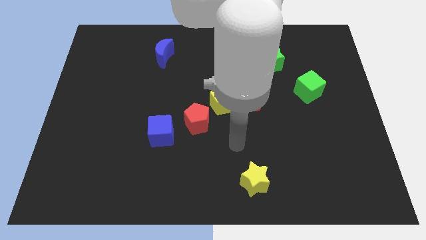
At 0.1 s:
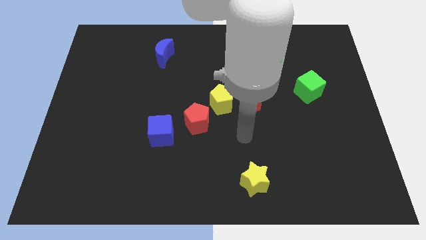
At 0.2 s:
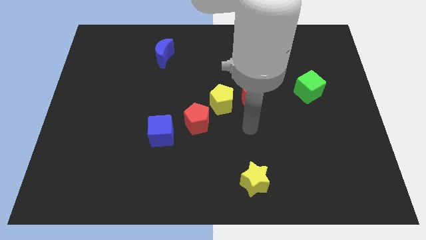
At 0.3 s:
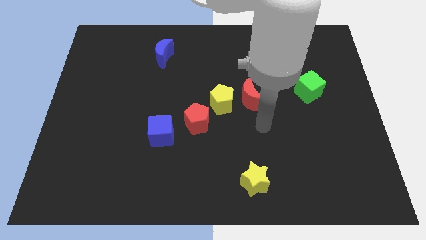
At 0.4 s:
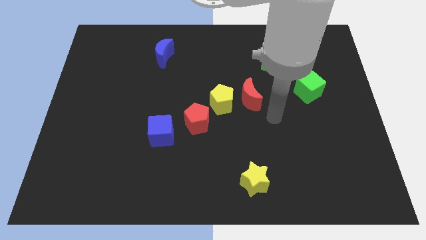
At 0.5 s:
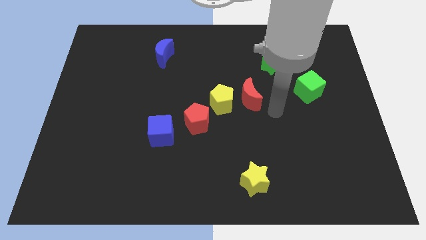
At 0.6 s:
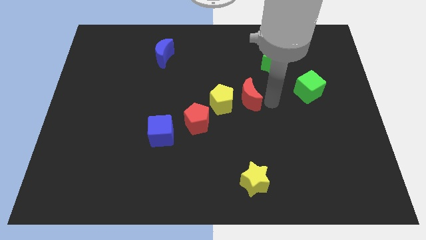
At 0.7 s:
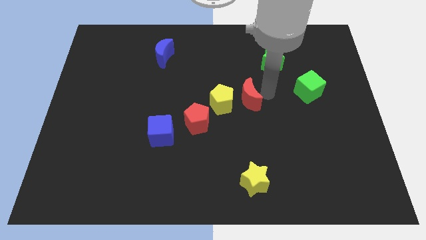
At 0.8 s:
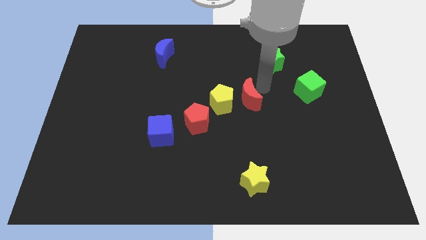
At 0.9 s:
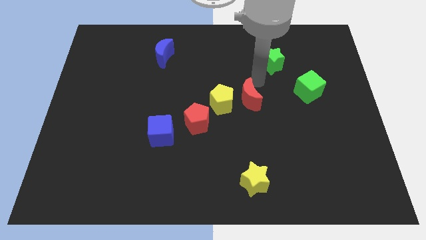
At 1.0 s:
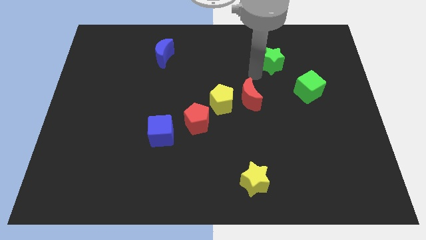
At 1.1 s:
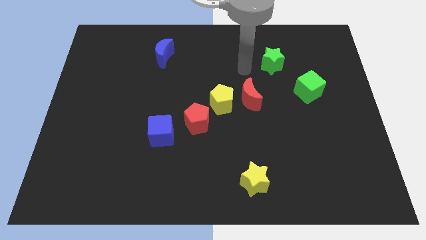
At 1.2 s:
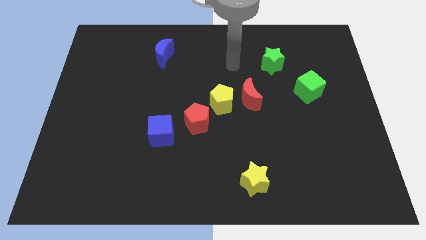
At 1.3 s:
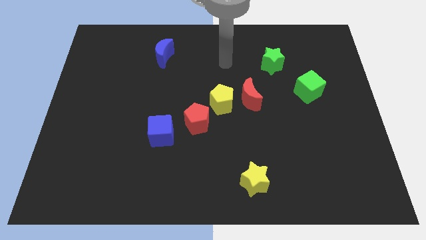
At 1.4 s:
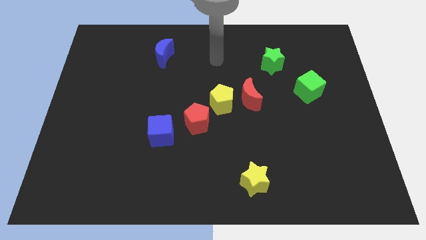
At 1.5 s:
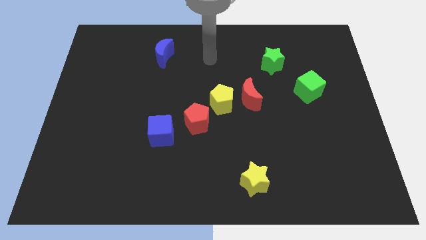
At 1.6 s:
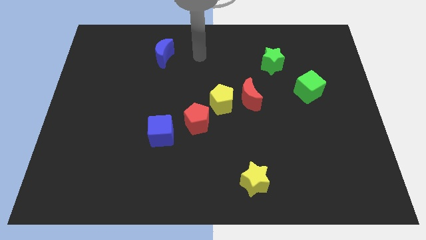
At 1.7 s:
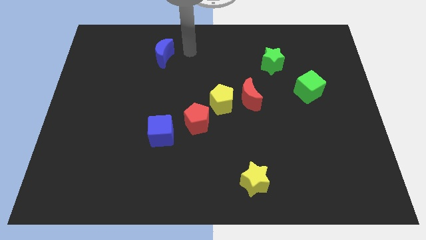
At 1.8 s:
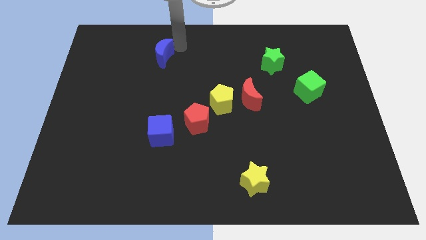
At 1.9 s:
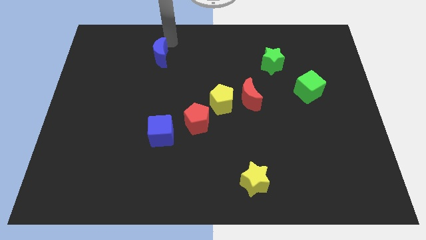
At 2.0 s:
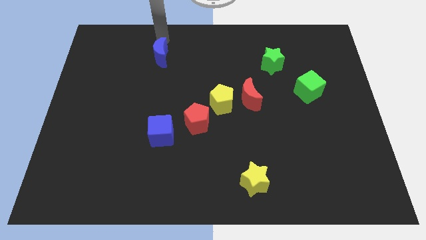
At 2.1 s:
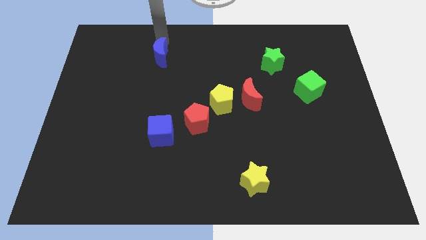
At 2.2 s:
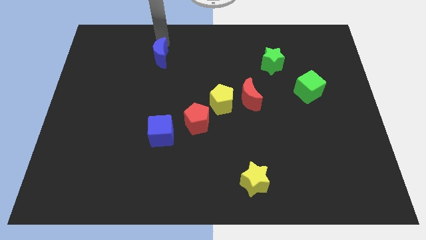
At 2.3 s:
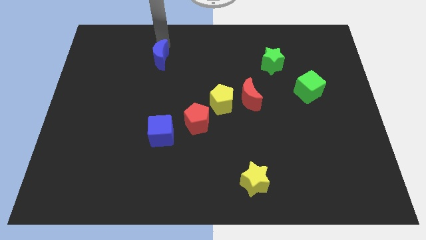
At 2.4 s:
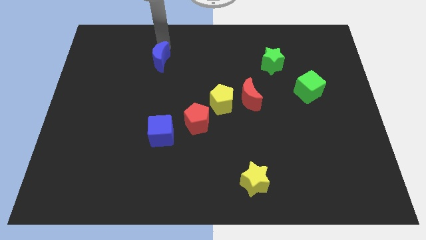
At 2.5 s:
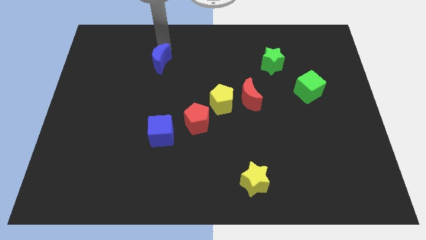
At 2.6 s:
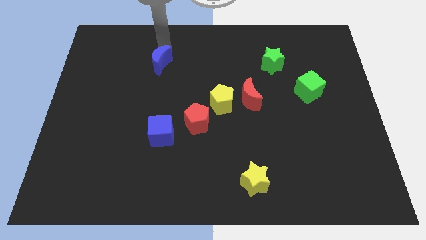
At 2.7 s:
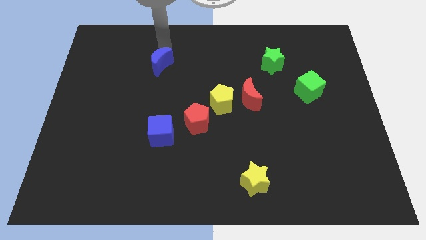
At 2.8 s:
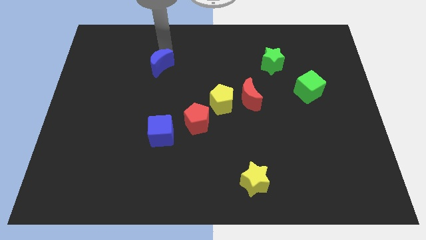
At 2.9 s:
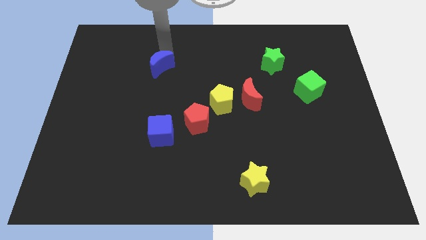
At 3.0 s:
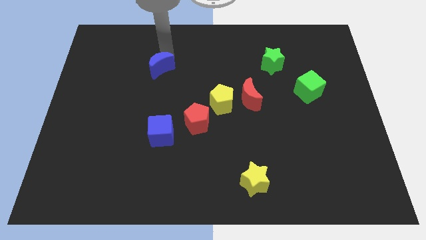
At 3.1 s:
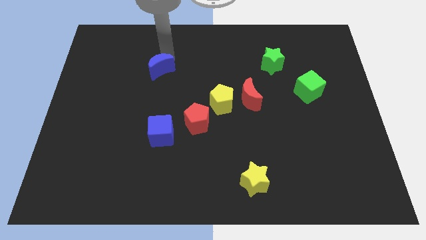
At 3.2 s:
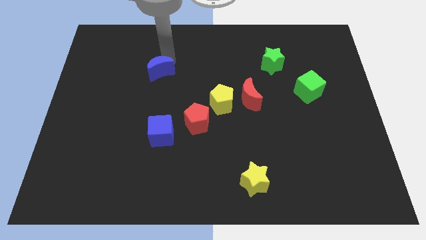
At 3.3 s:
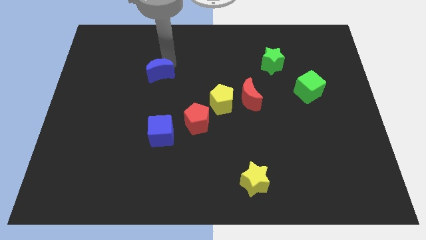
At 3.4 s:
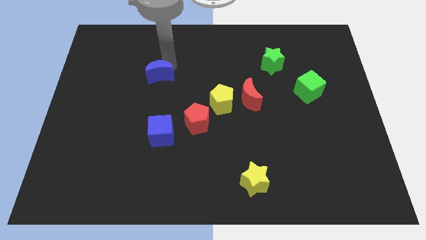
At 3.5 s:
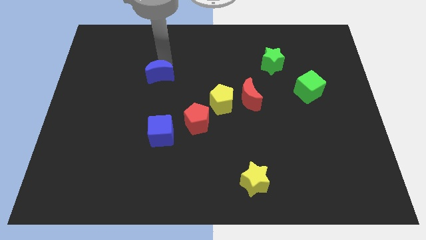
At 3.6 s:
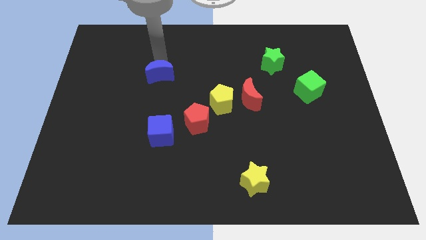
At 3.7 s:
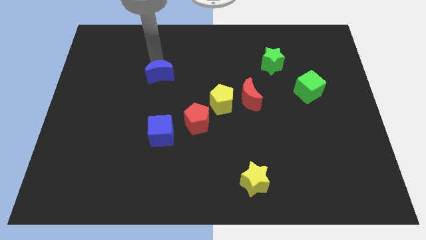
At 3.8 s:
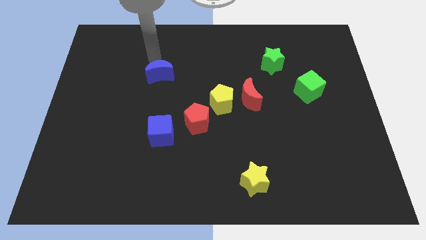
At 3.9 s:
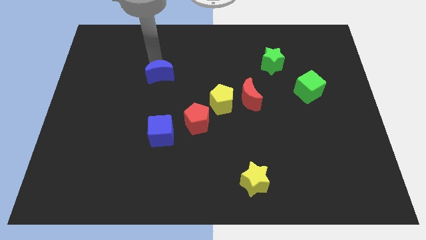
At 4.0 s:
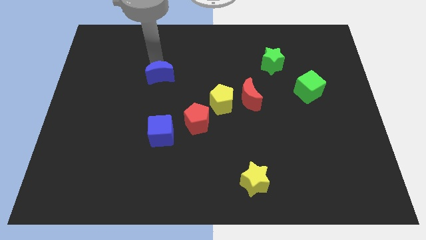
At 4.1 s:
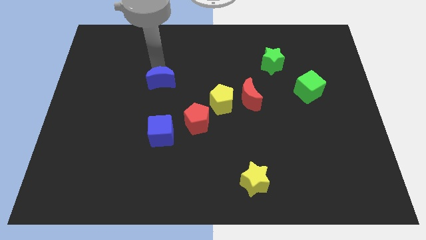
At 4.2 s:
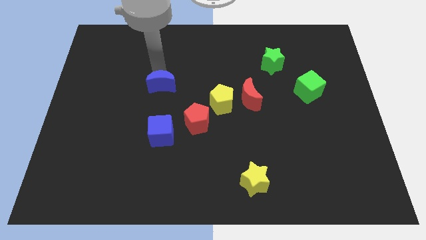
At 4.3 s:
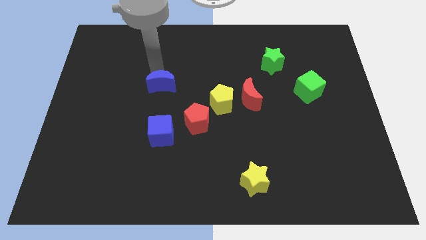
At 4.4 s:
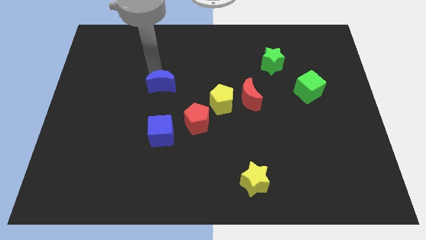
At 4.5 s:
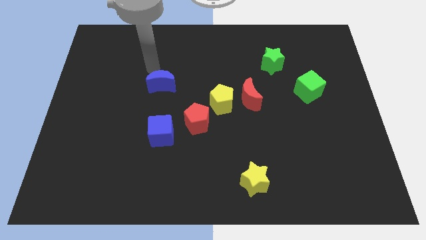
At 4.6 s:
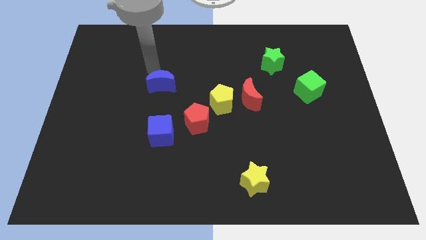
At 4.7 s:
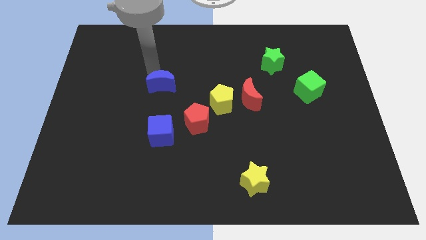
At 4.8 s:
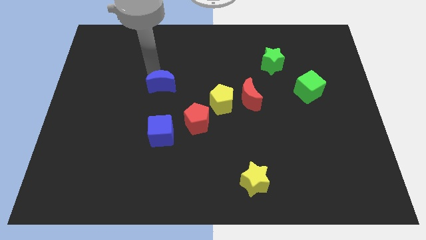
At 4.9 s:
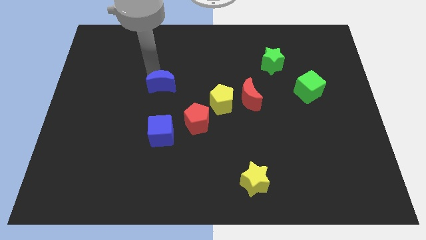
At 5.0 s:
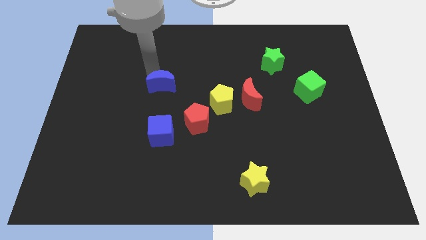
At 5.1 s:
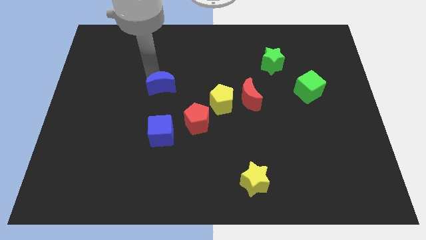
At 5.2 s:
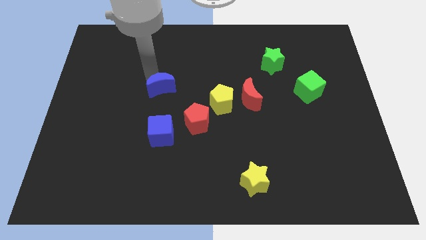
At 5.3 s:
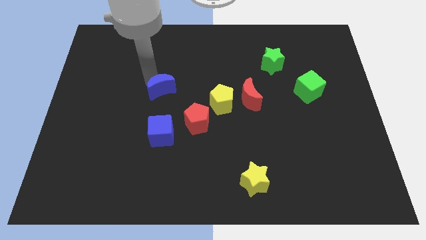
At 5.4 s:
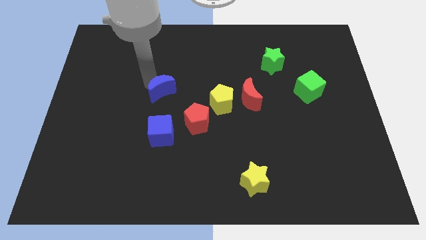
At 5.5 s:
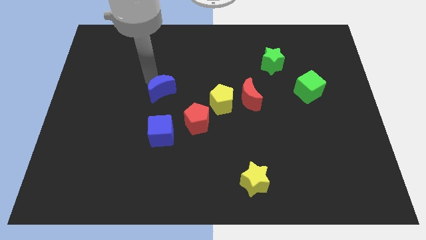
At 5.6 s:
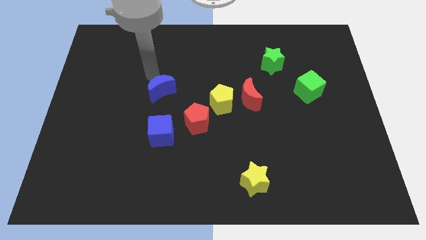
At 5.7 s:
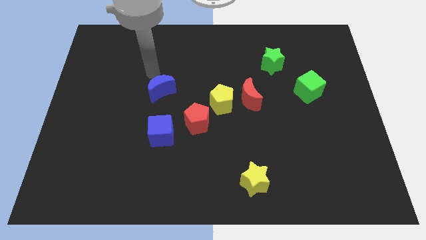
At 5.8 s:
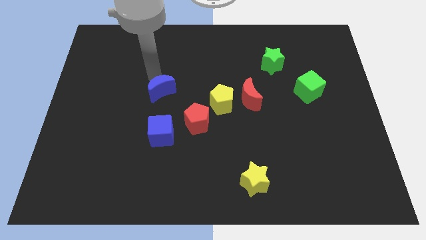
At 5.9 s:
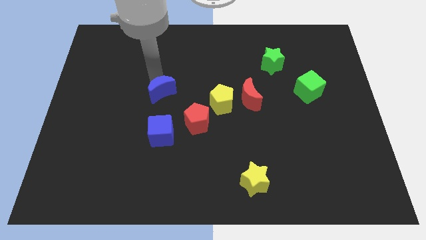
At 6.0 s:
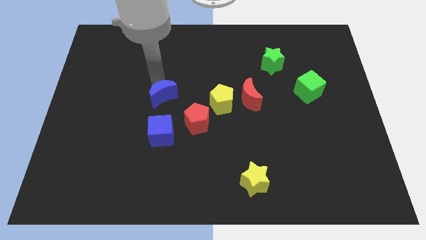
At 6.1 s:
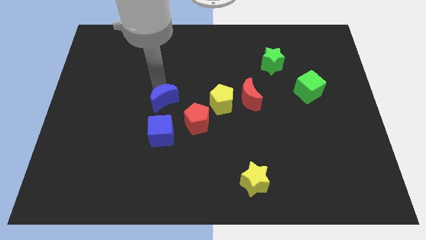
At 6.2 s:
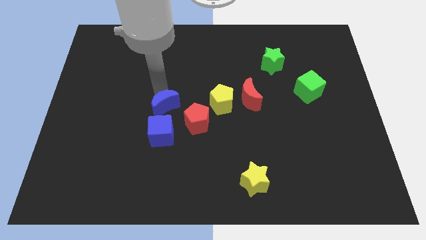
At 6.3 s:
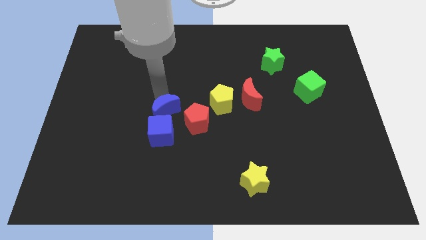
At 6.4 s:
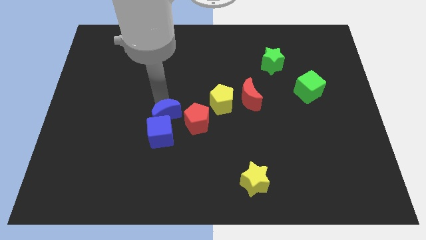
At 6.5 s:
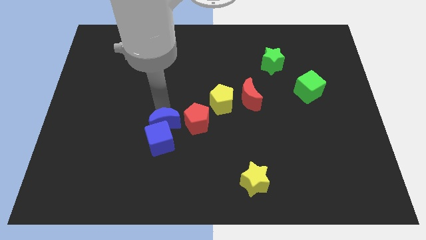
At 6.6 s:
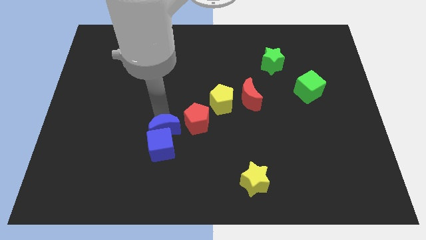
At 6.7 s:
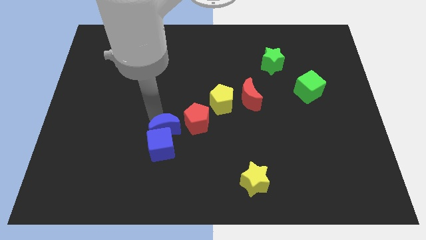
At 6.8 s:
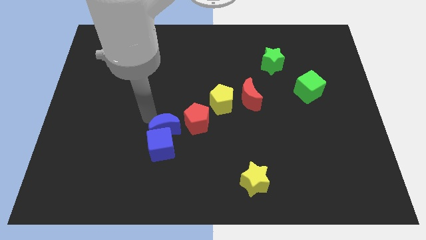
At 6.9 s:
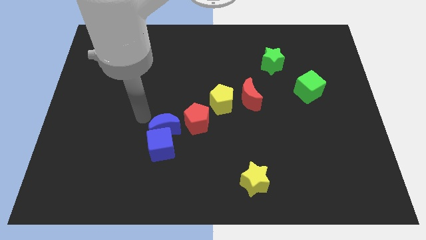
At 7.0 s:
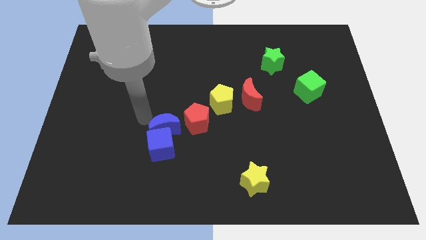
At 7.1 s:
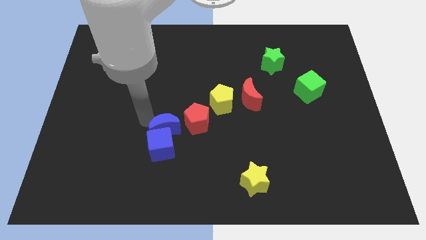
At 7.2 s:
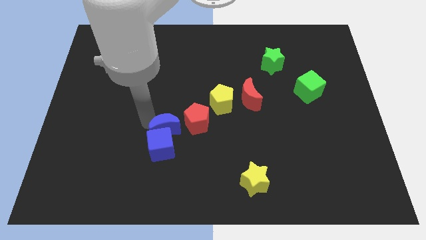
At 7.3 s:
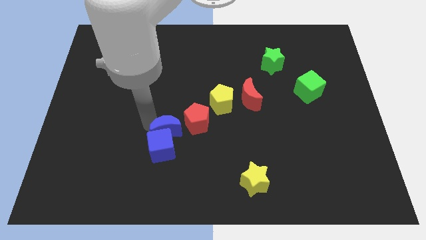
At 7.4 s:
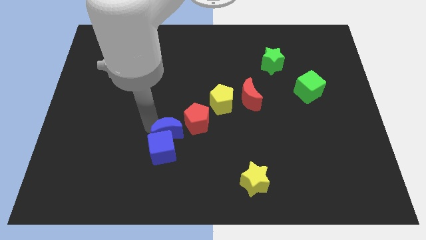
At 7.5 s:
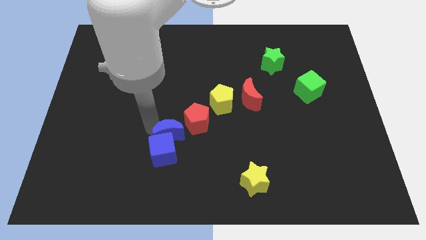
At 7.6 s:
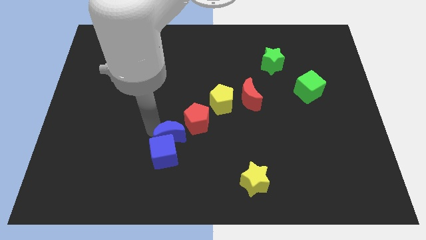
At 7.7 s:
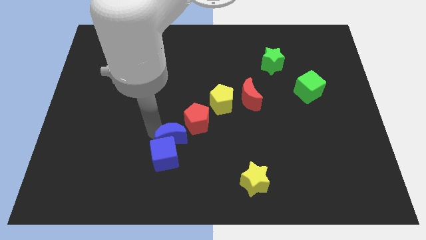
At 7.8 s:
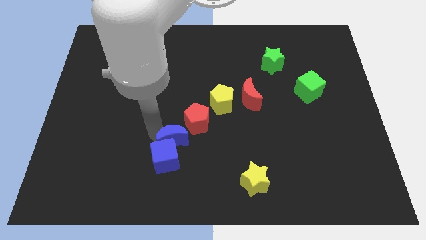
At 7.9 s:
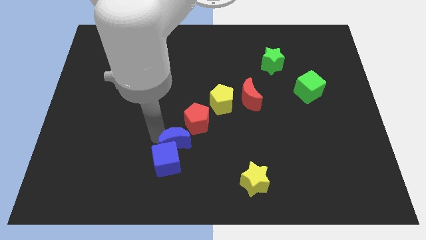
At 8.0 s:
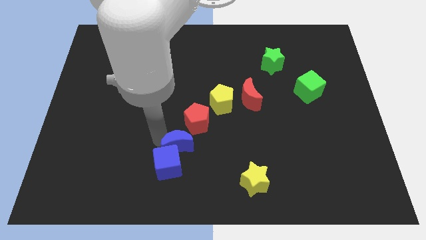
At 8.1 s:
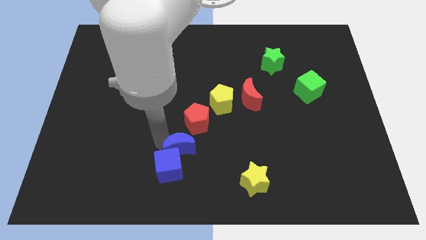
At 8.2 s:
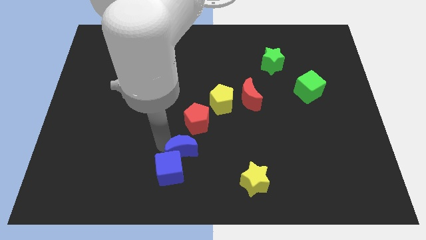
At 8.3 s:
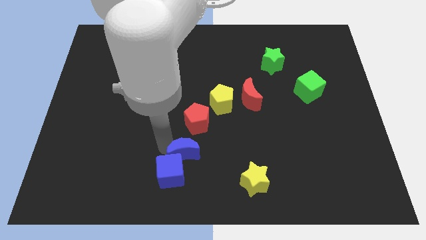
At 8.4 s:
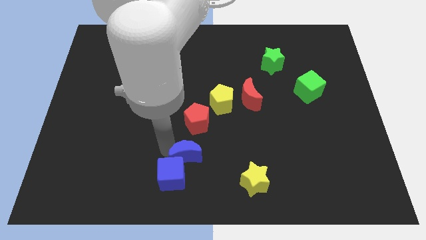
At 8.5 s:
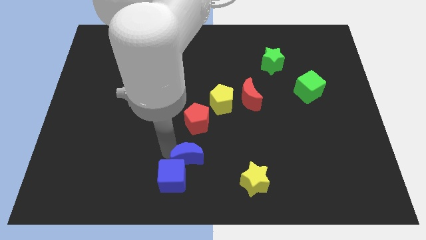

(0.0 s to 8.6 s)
push the blue moon to the bottom side
